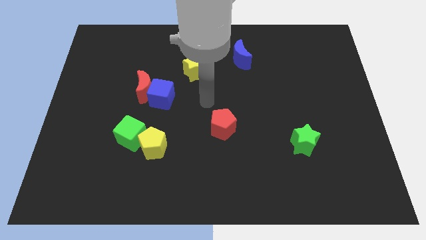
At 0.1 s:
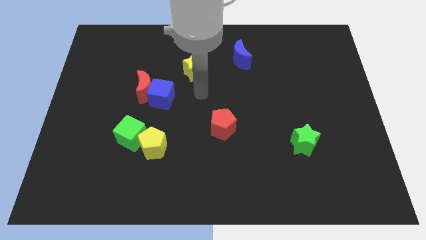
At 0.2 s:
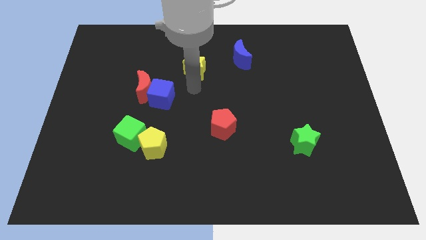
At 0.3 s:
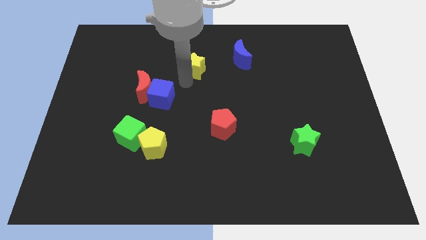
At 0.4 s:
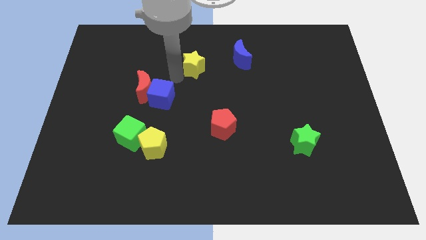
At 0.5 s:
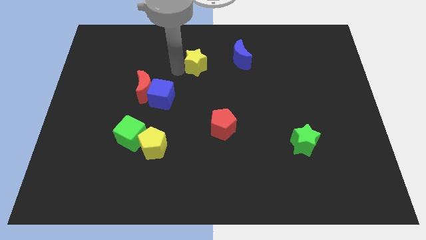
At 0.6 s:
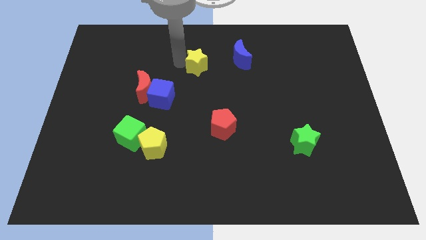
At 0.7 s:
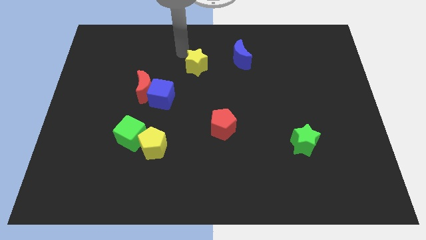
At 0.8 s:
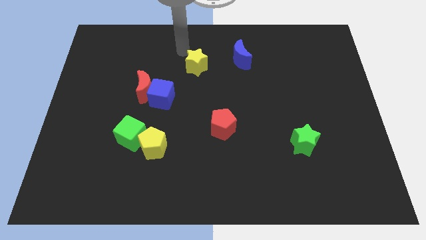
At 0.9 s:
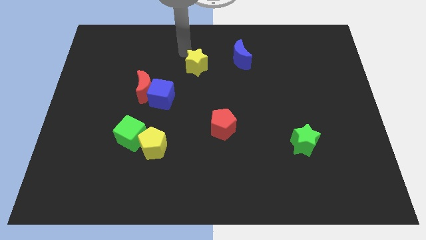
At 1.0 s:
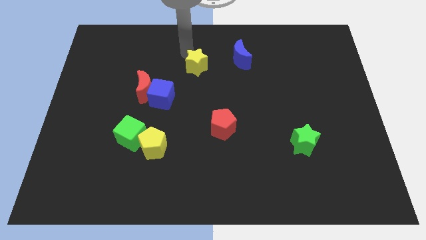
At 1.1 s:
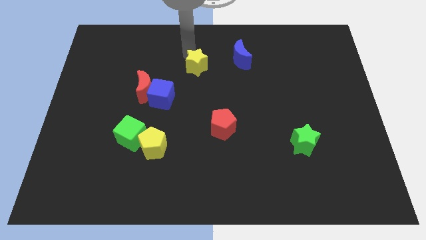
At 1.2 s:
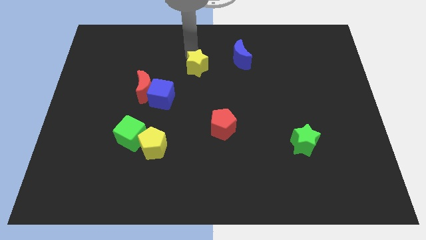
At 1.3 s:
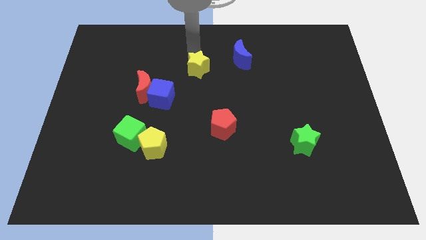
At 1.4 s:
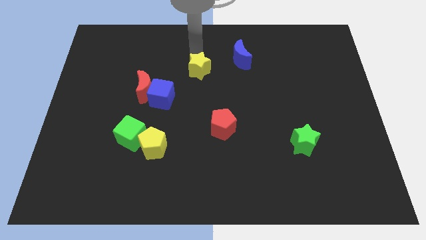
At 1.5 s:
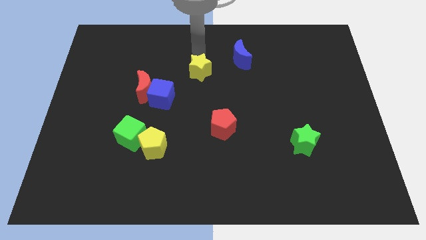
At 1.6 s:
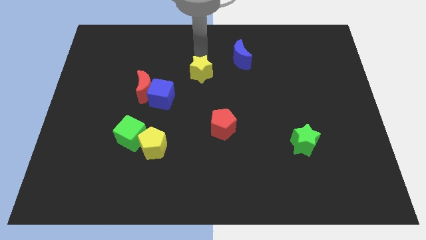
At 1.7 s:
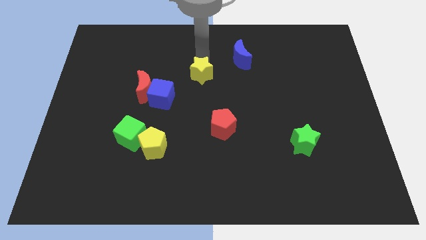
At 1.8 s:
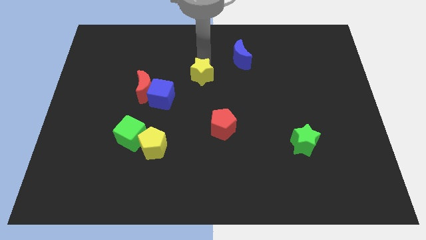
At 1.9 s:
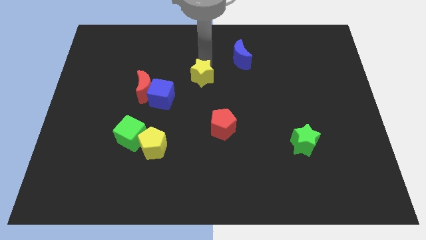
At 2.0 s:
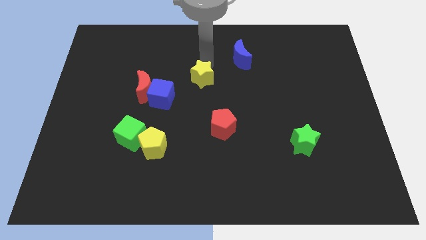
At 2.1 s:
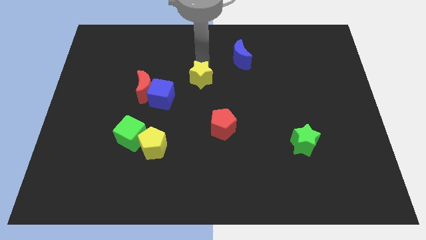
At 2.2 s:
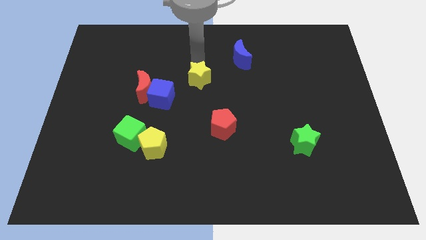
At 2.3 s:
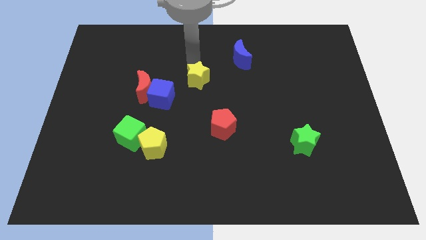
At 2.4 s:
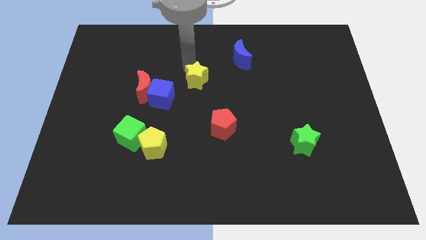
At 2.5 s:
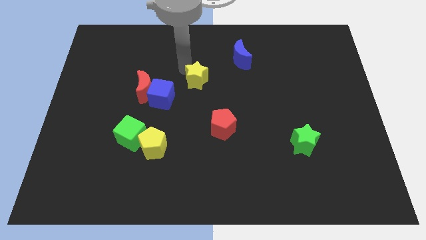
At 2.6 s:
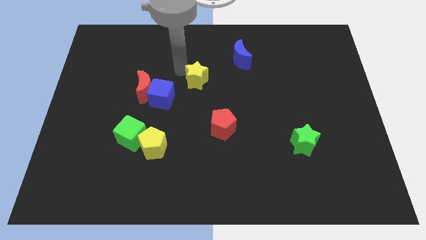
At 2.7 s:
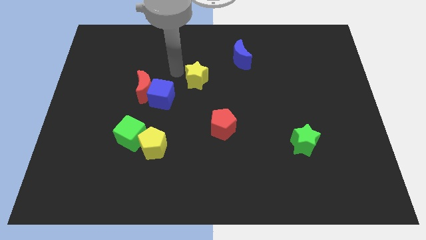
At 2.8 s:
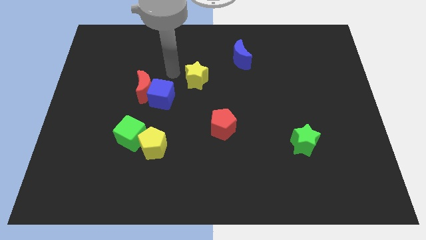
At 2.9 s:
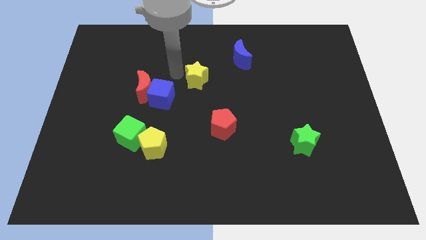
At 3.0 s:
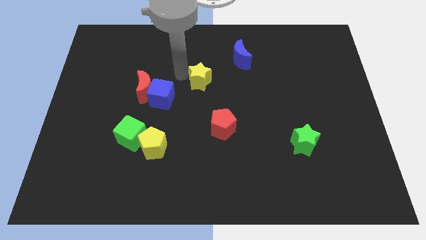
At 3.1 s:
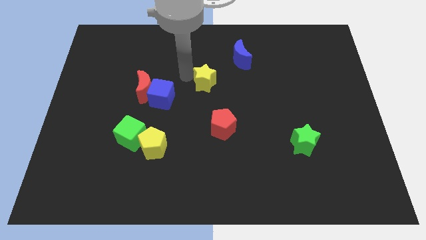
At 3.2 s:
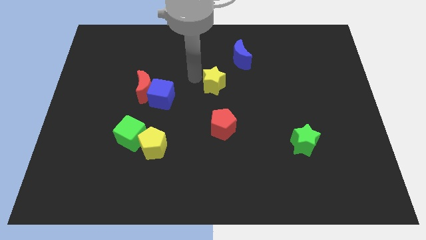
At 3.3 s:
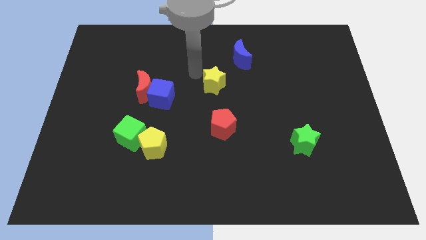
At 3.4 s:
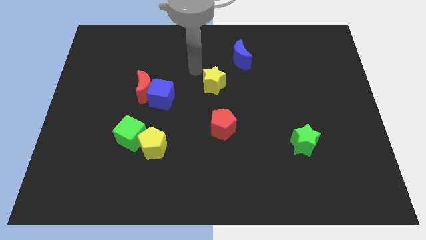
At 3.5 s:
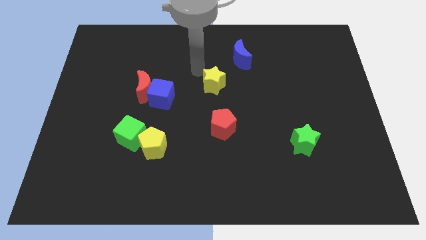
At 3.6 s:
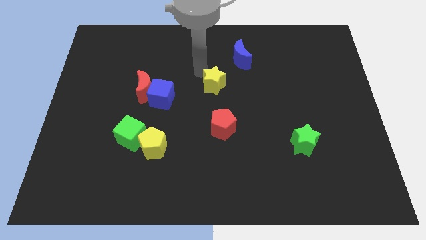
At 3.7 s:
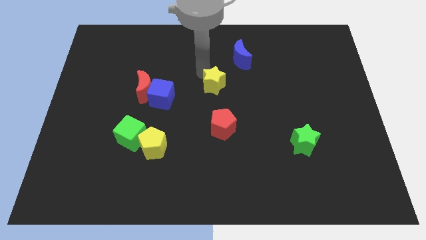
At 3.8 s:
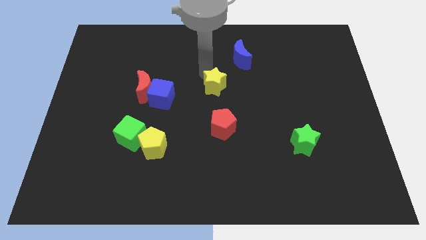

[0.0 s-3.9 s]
push the yellow star somewhat diagonally downwards and to the right

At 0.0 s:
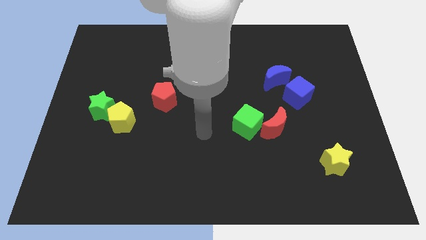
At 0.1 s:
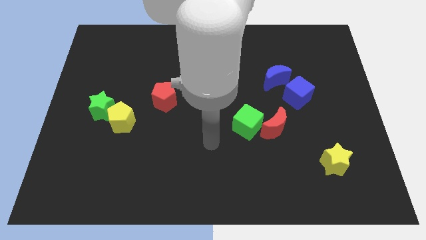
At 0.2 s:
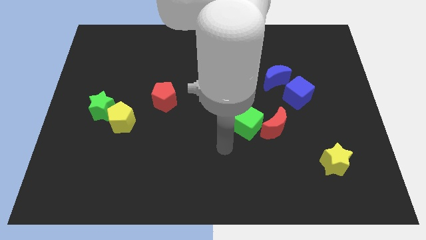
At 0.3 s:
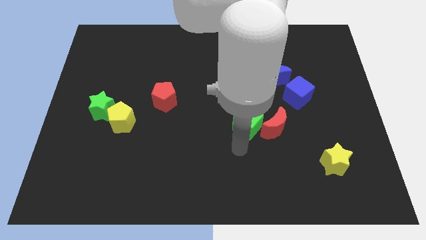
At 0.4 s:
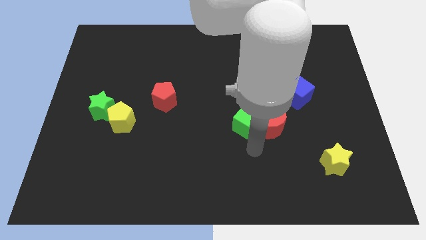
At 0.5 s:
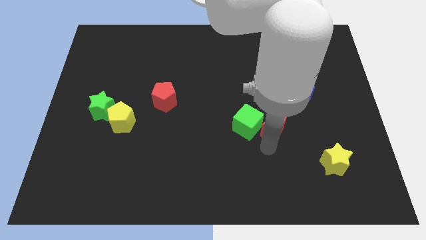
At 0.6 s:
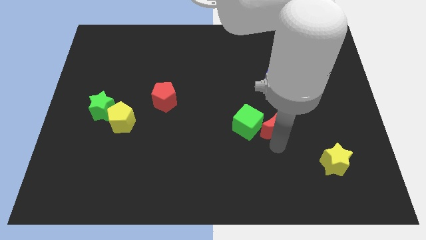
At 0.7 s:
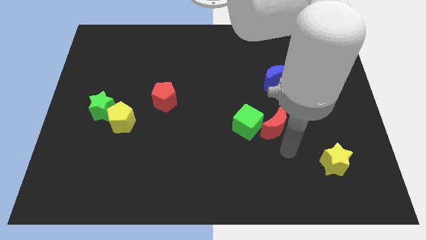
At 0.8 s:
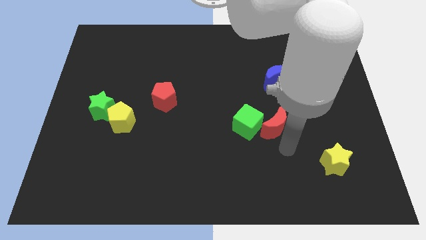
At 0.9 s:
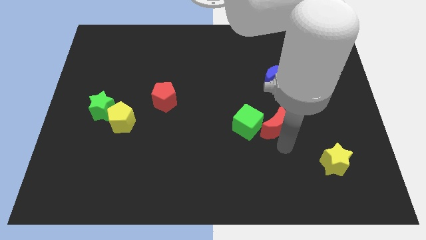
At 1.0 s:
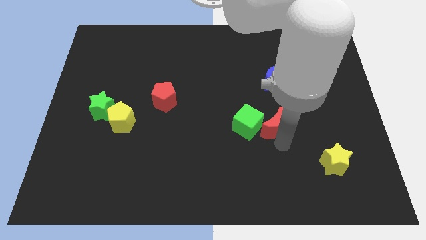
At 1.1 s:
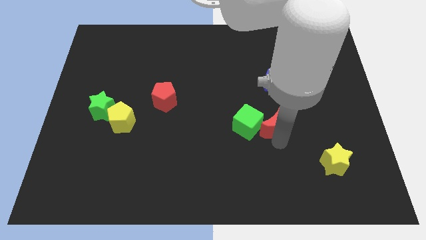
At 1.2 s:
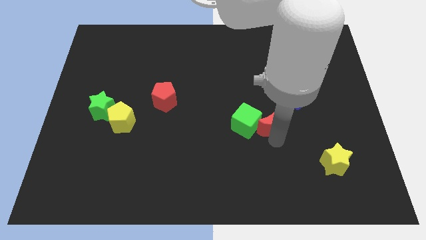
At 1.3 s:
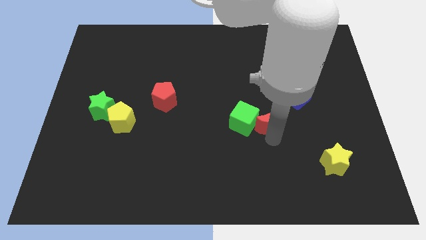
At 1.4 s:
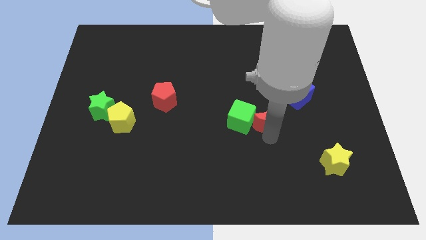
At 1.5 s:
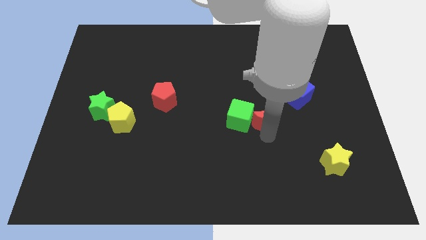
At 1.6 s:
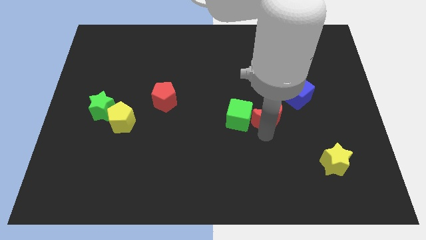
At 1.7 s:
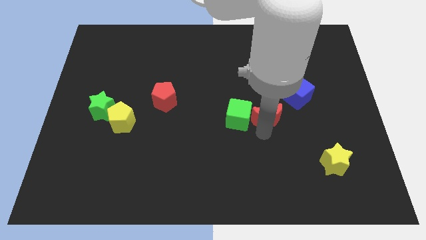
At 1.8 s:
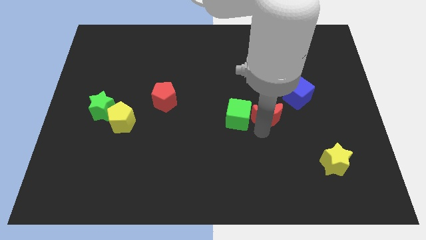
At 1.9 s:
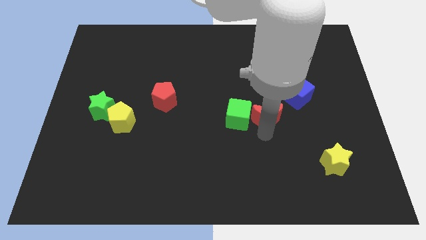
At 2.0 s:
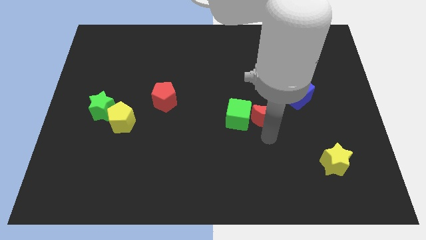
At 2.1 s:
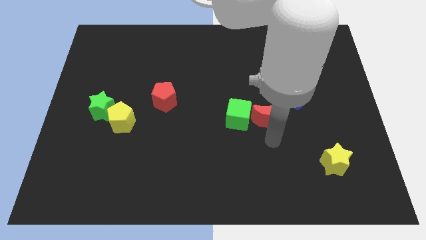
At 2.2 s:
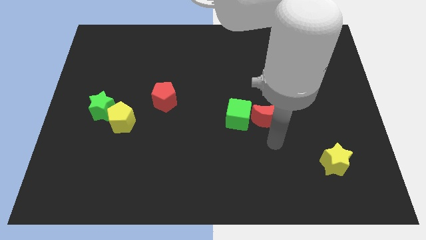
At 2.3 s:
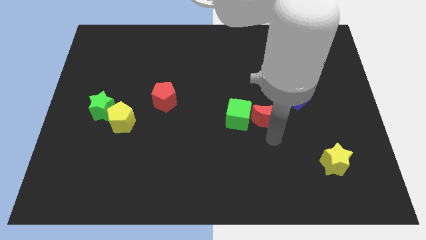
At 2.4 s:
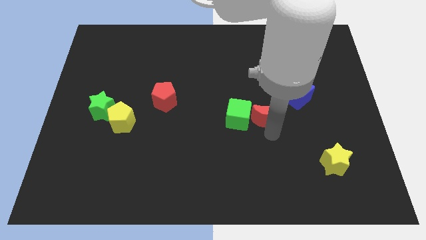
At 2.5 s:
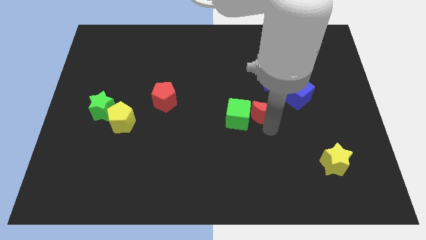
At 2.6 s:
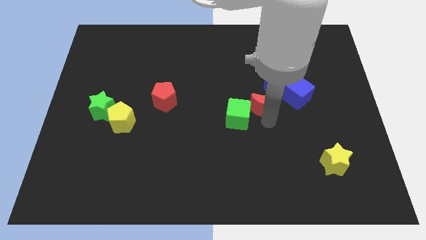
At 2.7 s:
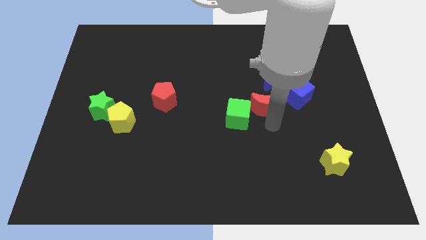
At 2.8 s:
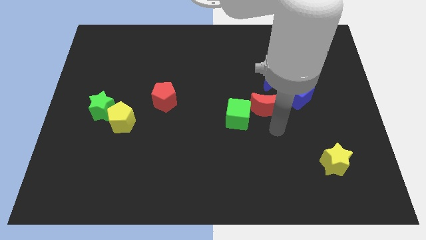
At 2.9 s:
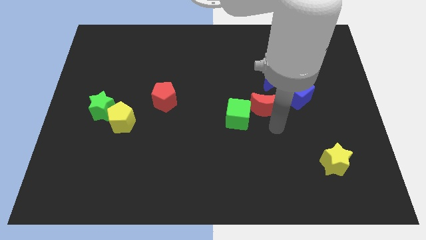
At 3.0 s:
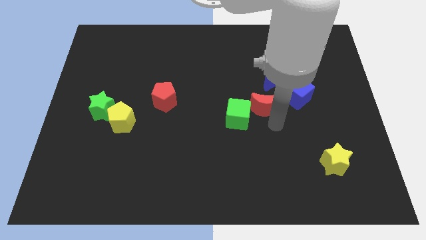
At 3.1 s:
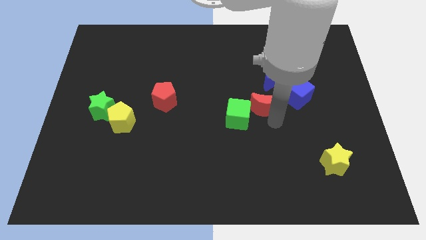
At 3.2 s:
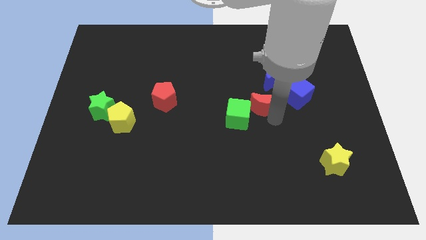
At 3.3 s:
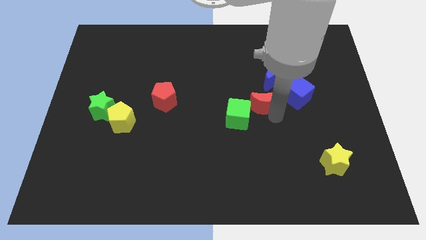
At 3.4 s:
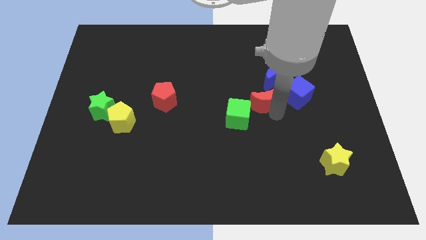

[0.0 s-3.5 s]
slide the red moon up somewhat

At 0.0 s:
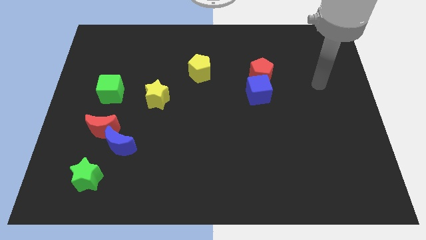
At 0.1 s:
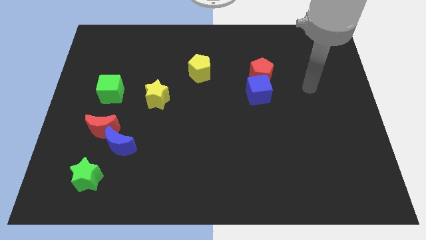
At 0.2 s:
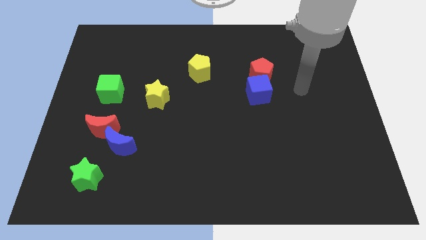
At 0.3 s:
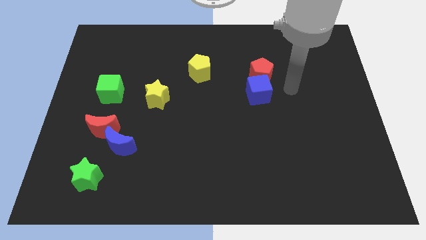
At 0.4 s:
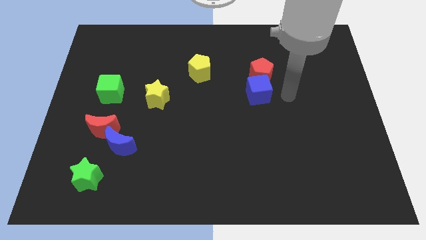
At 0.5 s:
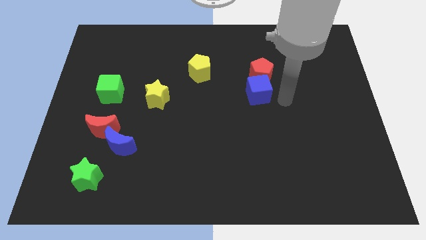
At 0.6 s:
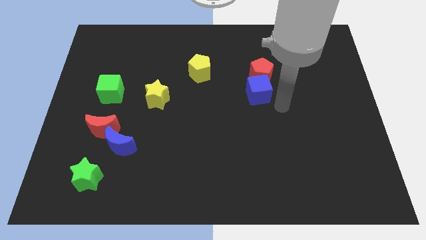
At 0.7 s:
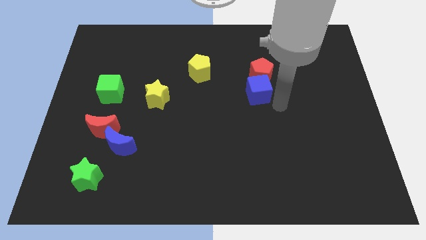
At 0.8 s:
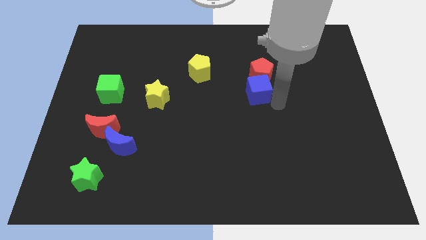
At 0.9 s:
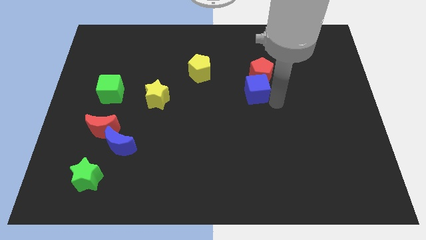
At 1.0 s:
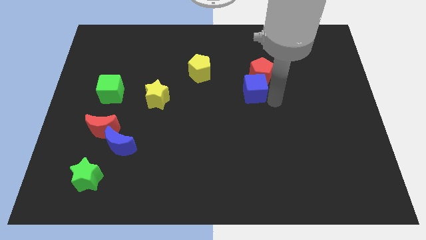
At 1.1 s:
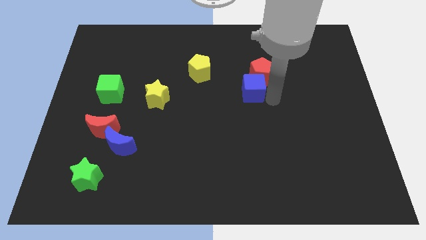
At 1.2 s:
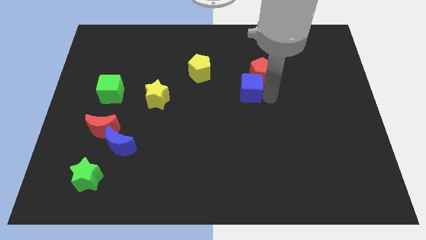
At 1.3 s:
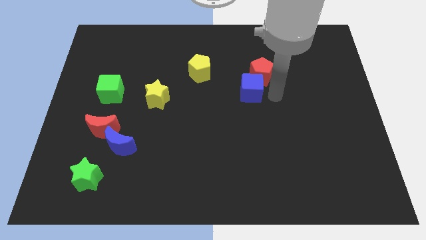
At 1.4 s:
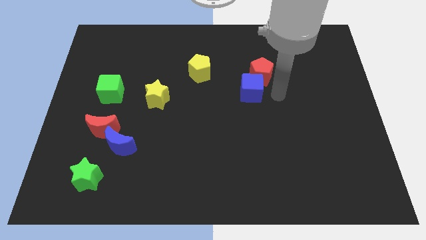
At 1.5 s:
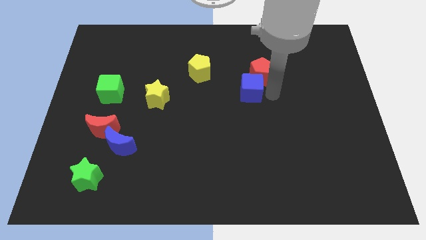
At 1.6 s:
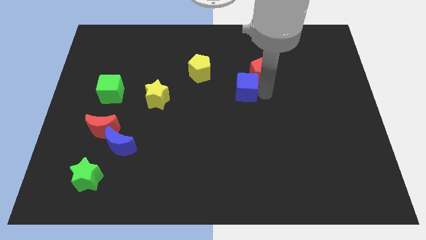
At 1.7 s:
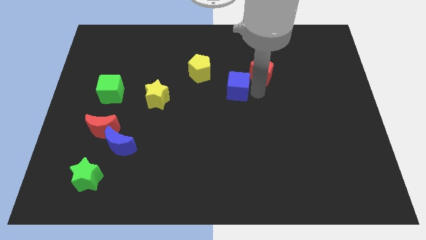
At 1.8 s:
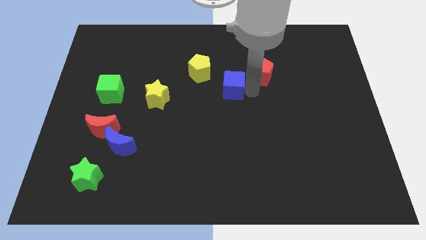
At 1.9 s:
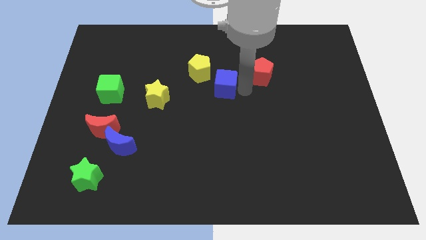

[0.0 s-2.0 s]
push the blue cube a little to the left
